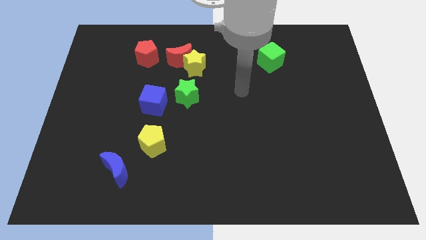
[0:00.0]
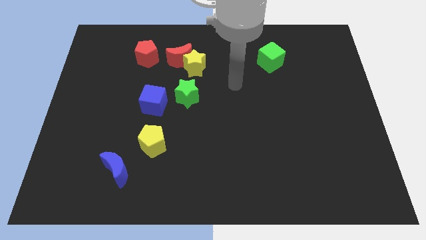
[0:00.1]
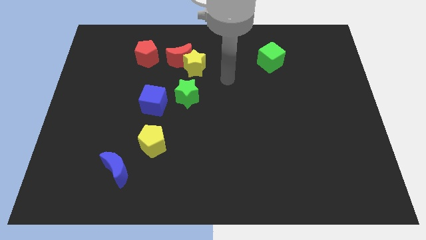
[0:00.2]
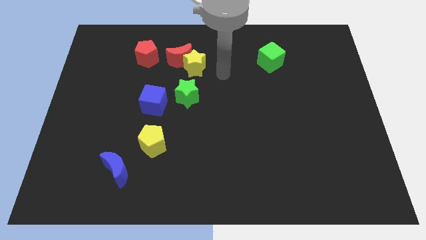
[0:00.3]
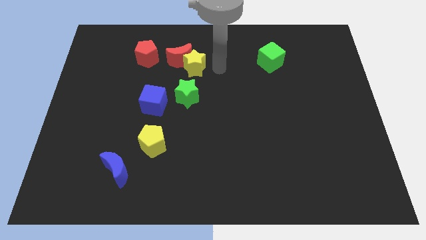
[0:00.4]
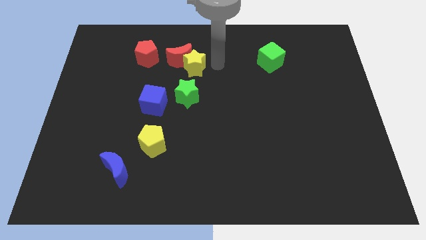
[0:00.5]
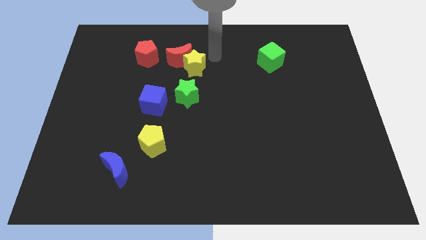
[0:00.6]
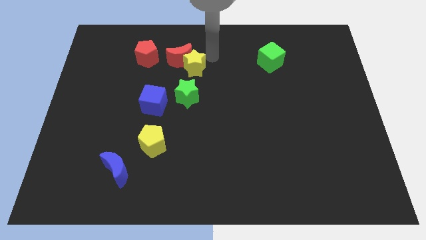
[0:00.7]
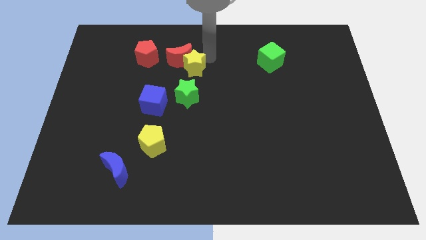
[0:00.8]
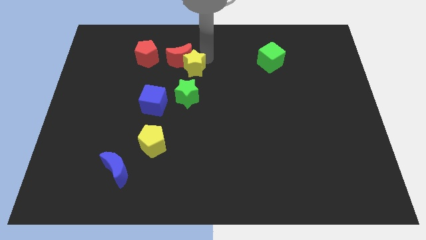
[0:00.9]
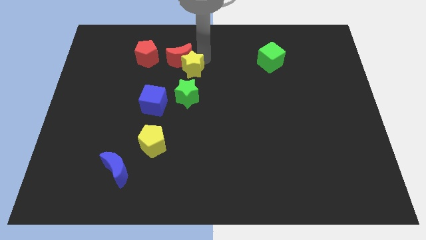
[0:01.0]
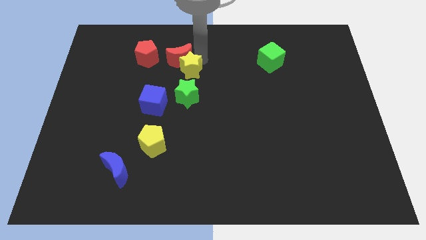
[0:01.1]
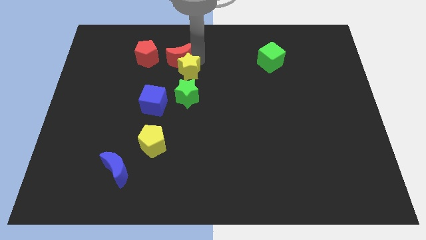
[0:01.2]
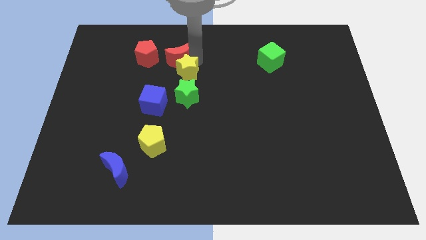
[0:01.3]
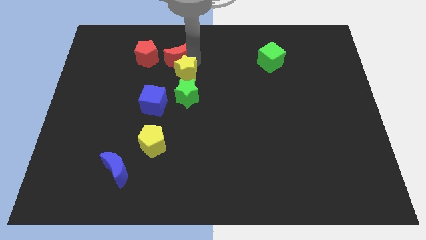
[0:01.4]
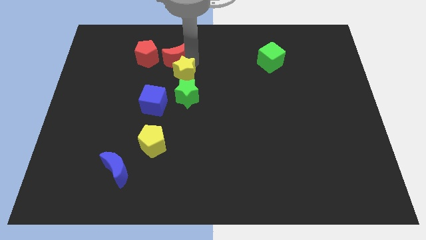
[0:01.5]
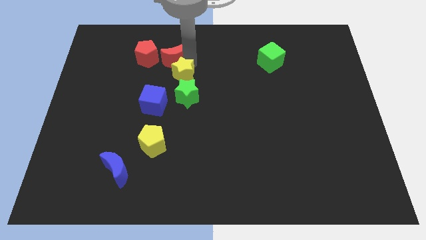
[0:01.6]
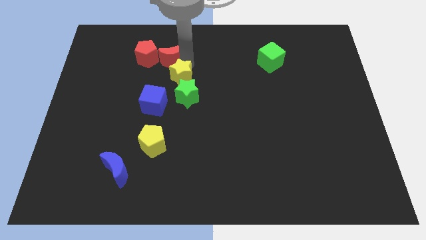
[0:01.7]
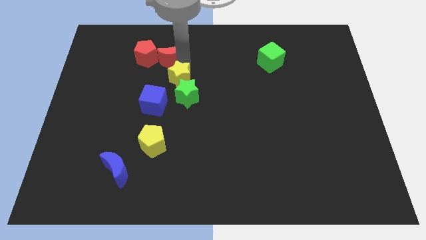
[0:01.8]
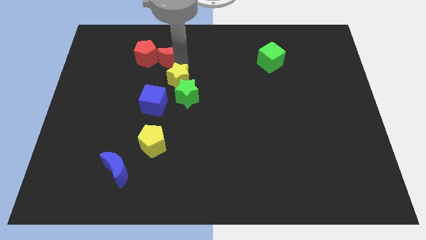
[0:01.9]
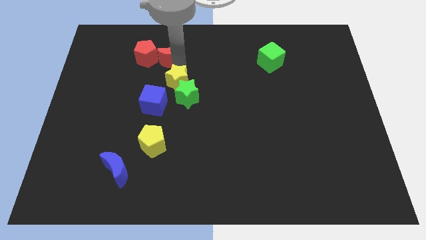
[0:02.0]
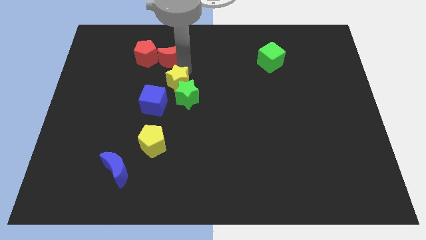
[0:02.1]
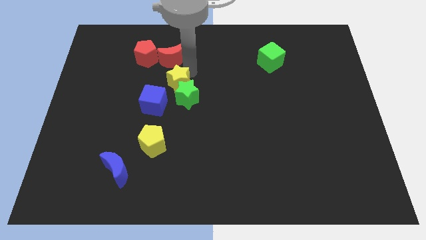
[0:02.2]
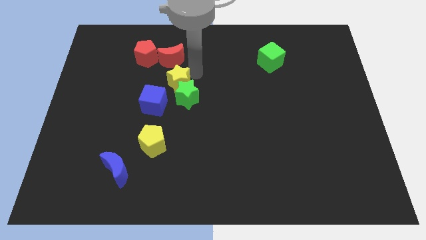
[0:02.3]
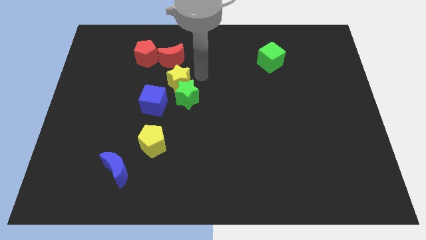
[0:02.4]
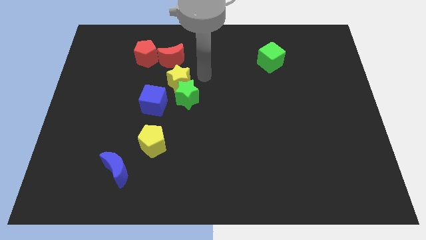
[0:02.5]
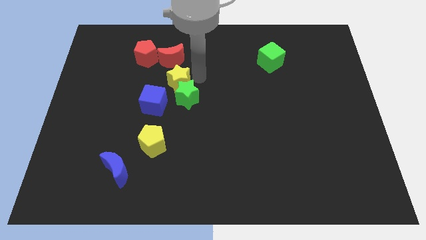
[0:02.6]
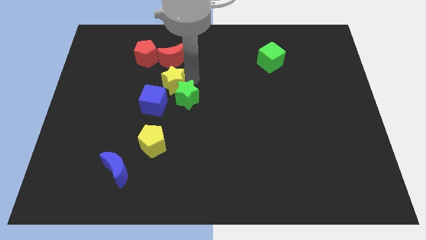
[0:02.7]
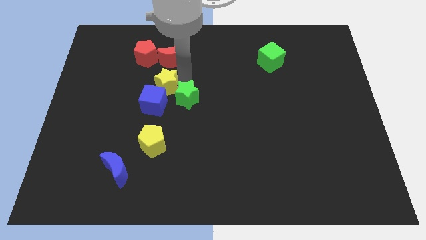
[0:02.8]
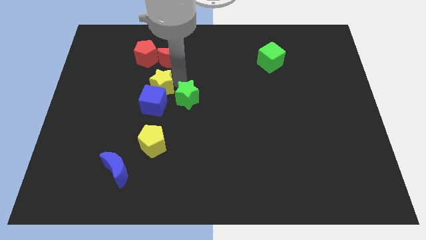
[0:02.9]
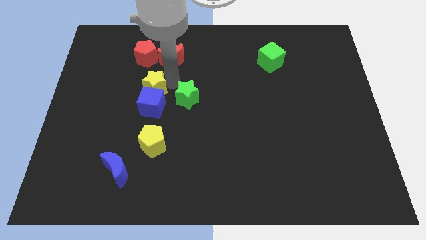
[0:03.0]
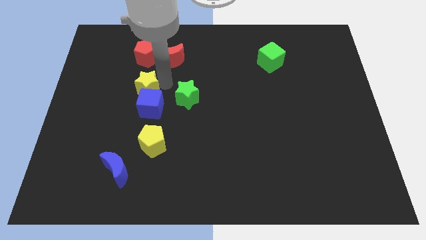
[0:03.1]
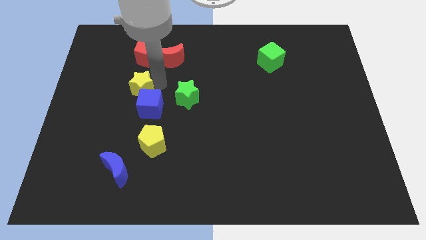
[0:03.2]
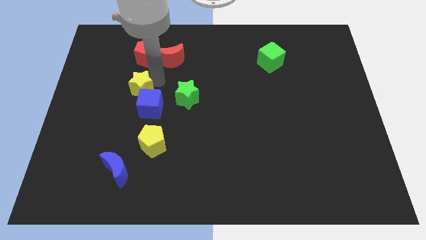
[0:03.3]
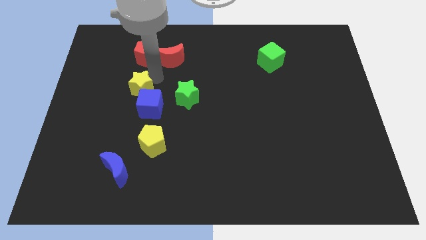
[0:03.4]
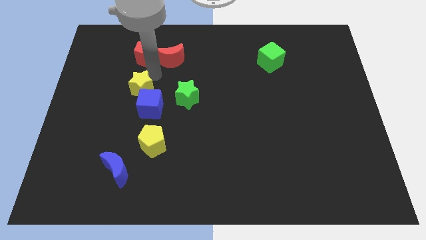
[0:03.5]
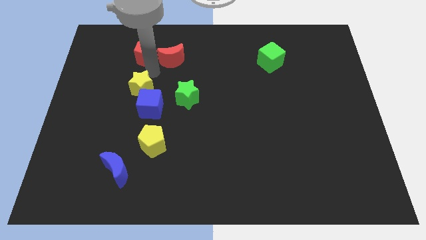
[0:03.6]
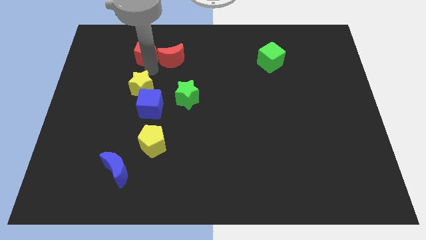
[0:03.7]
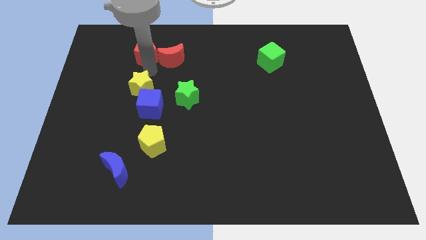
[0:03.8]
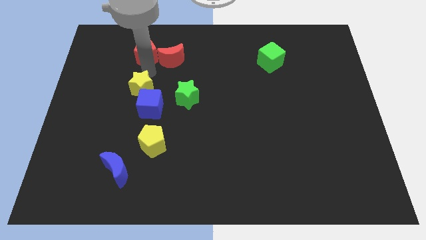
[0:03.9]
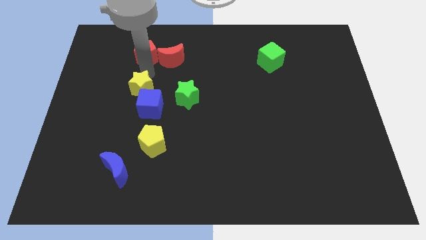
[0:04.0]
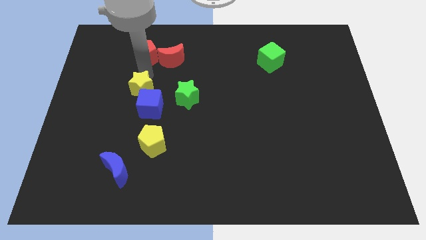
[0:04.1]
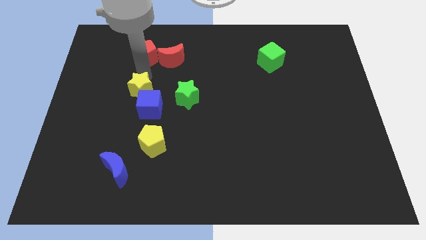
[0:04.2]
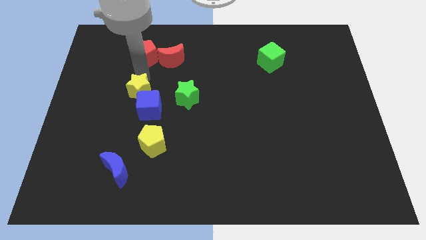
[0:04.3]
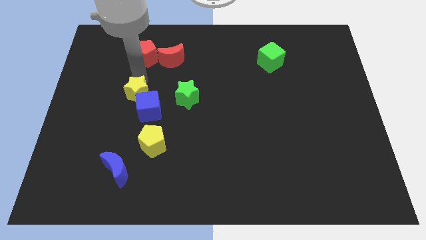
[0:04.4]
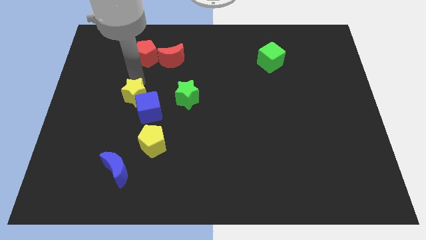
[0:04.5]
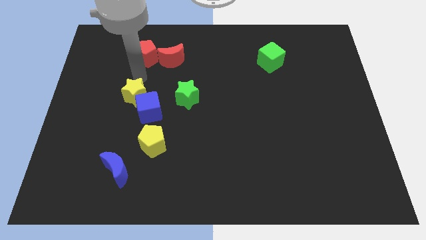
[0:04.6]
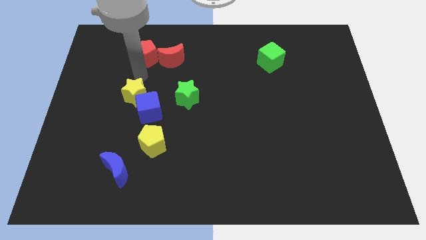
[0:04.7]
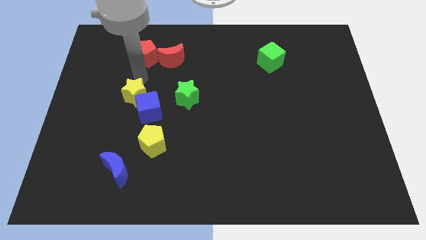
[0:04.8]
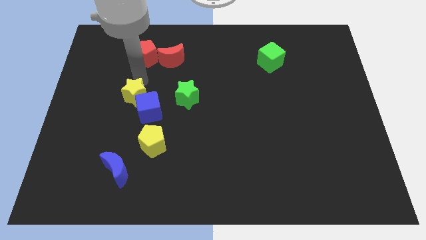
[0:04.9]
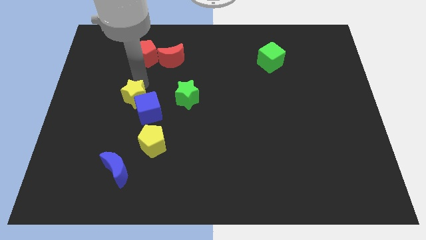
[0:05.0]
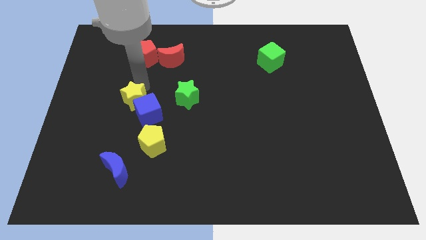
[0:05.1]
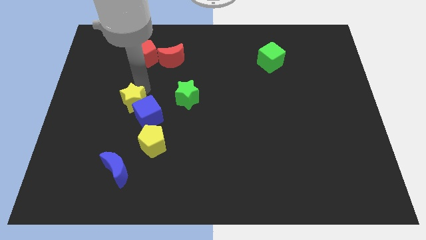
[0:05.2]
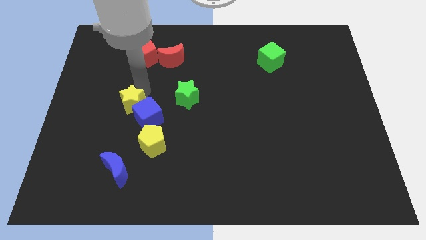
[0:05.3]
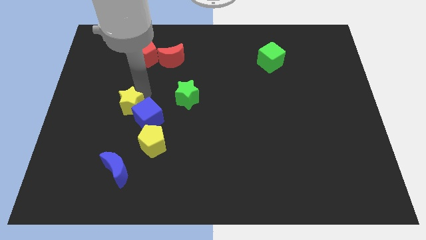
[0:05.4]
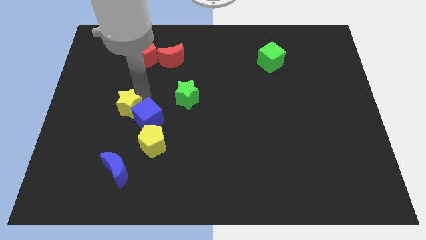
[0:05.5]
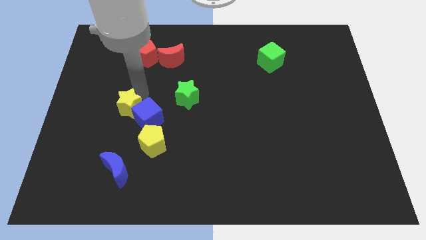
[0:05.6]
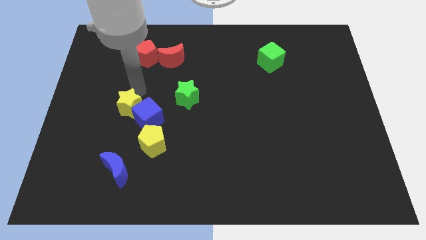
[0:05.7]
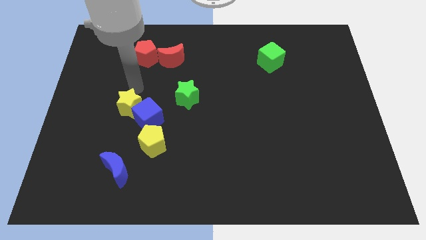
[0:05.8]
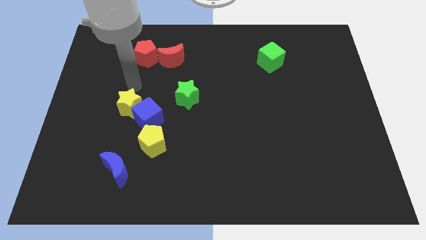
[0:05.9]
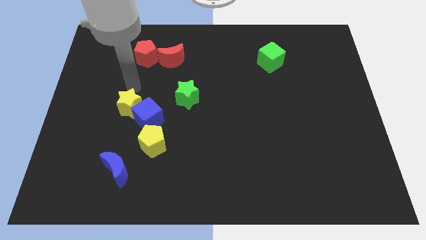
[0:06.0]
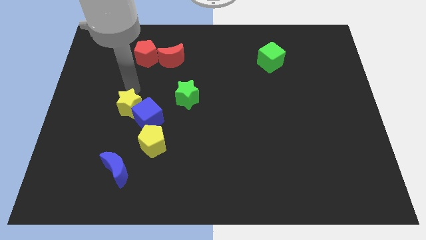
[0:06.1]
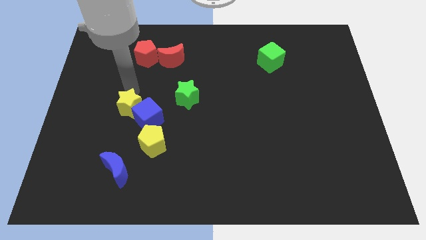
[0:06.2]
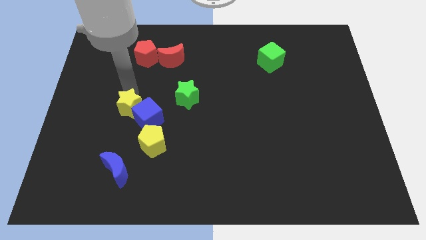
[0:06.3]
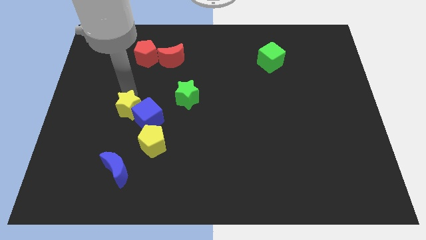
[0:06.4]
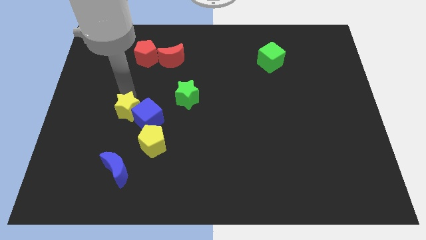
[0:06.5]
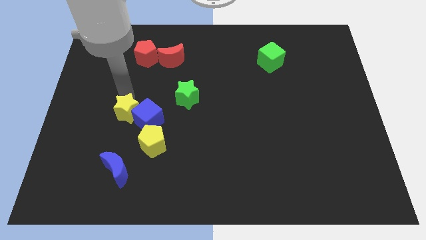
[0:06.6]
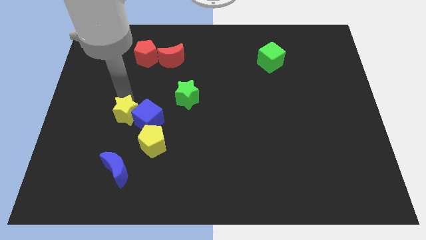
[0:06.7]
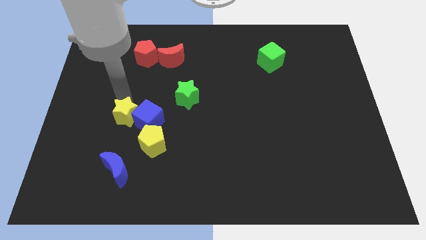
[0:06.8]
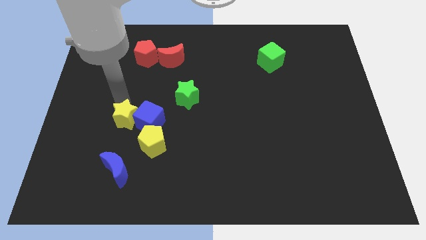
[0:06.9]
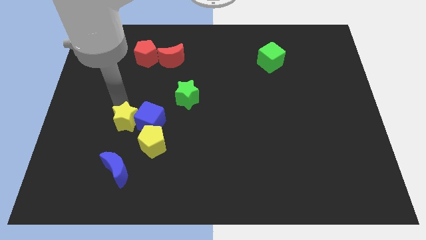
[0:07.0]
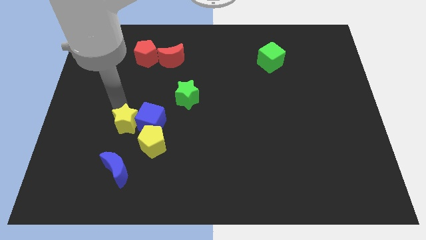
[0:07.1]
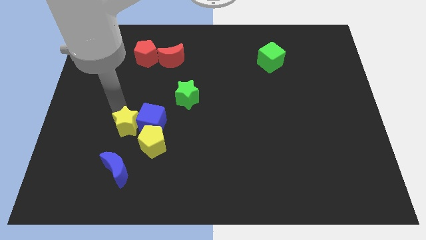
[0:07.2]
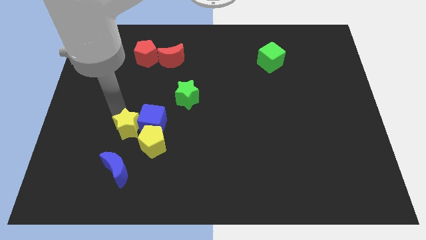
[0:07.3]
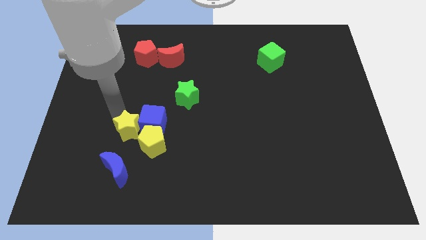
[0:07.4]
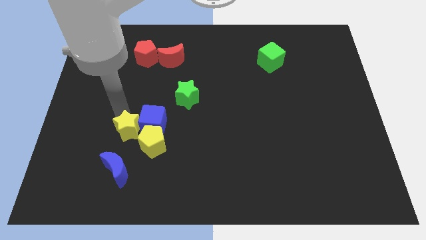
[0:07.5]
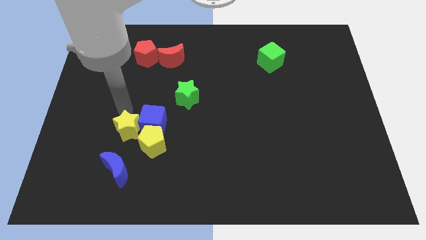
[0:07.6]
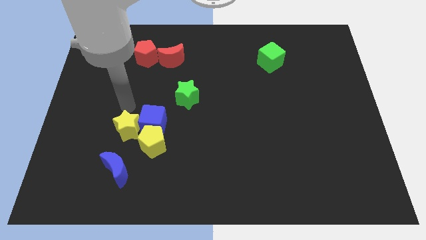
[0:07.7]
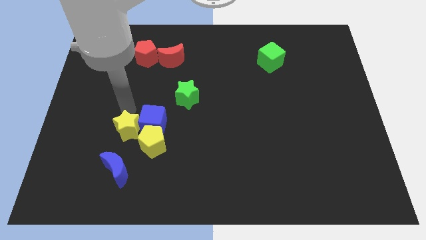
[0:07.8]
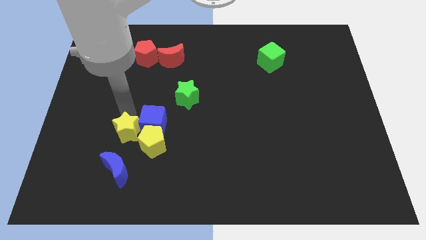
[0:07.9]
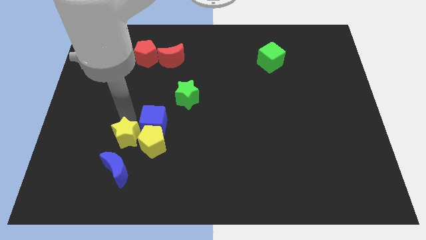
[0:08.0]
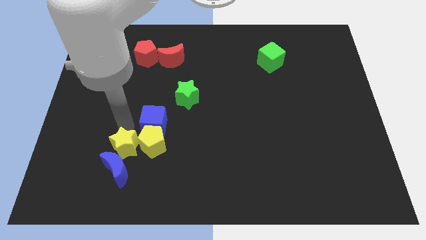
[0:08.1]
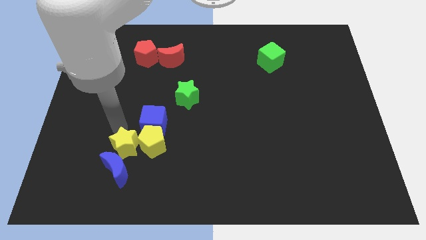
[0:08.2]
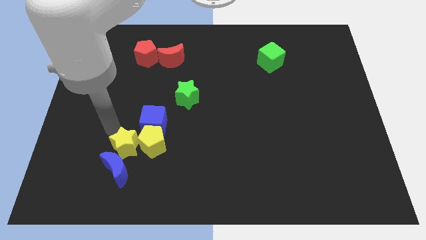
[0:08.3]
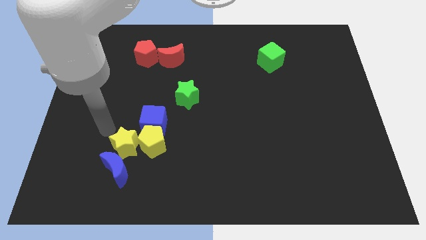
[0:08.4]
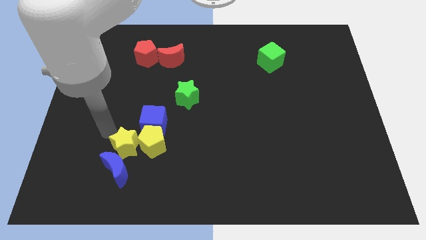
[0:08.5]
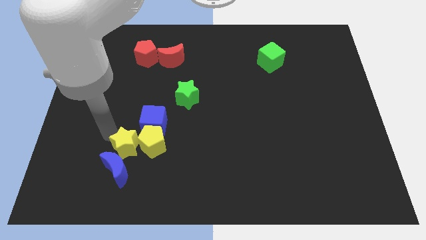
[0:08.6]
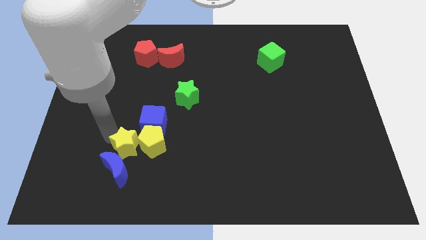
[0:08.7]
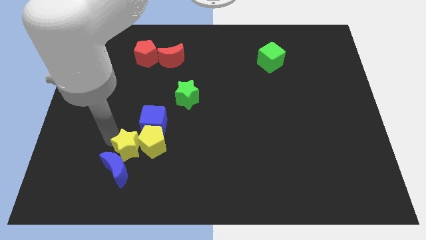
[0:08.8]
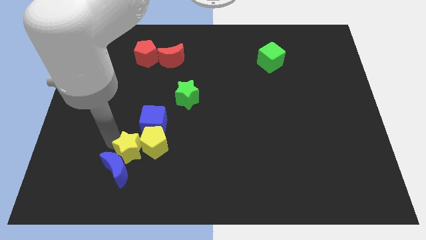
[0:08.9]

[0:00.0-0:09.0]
put the yellow star to the bottom of the blue cube
